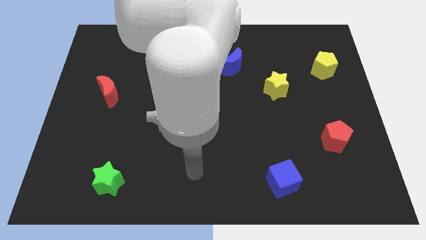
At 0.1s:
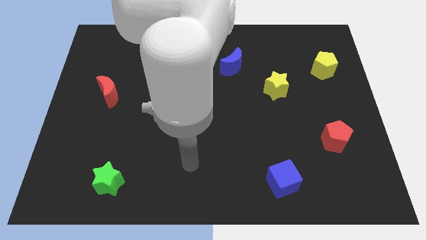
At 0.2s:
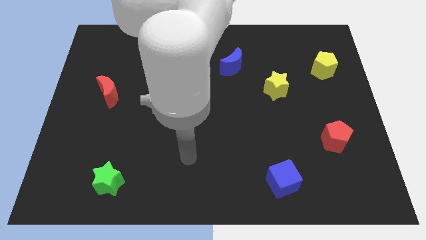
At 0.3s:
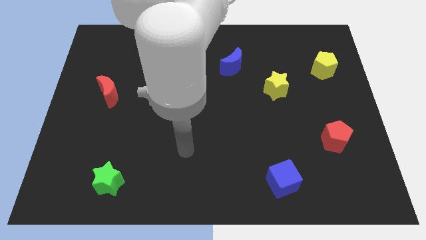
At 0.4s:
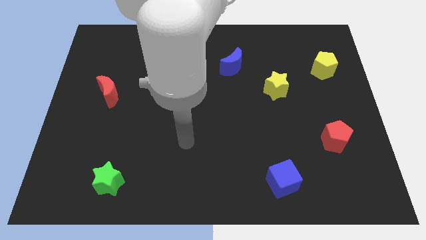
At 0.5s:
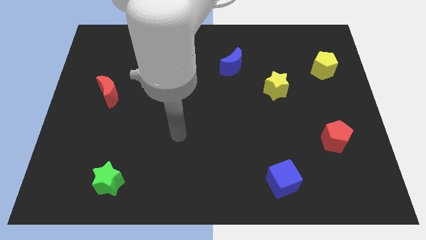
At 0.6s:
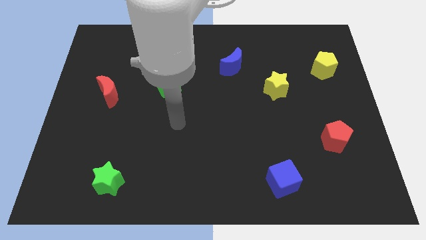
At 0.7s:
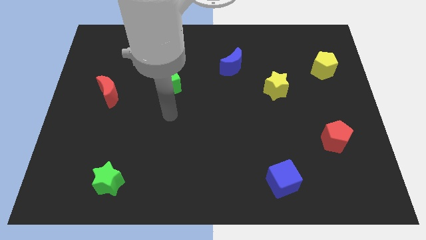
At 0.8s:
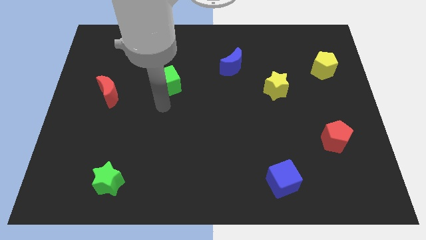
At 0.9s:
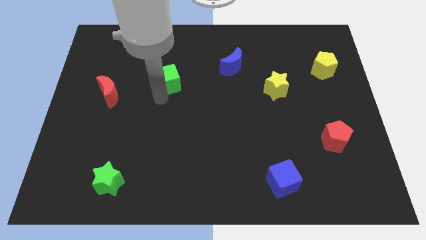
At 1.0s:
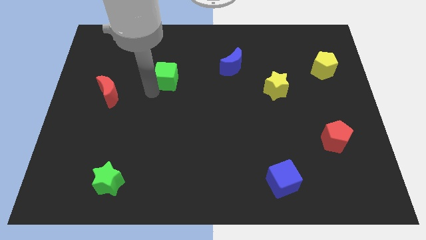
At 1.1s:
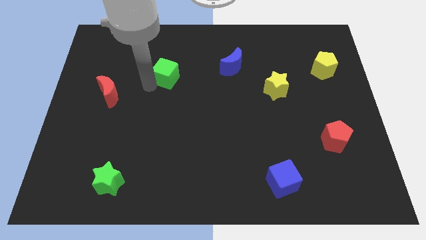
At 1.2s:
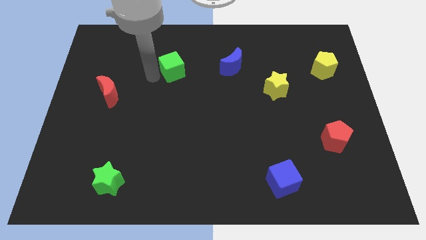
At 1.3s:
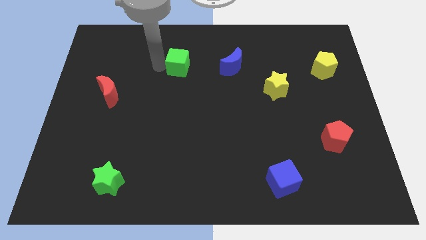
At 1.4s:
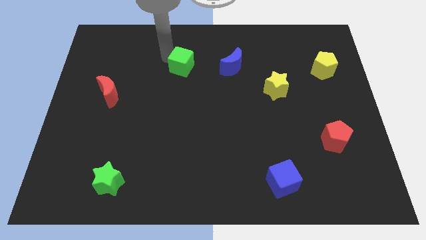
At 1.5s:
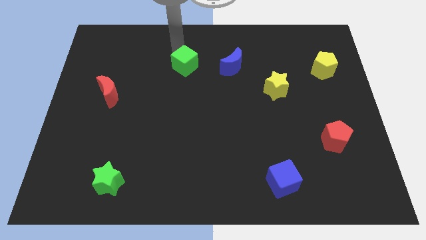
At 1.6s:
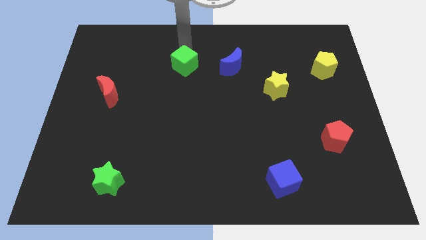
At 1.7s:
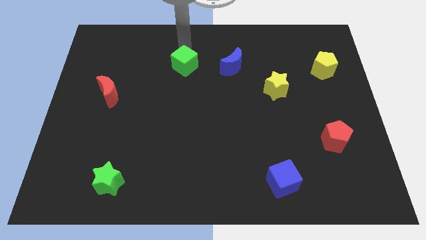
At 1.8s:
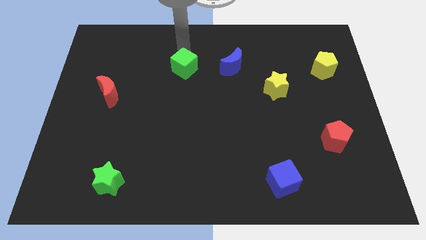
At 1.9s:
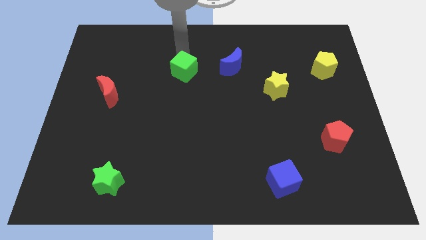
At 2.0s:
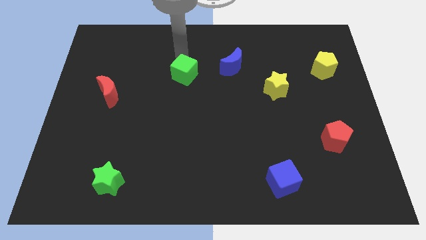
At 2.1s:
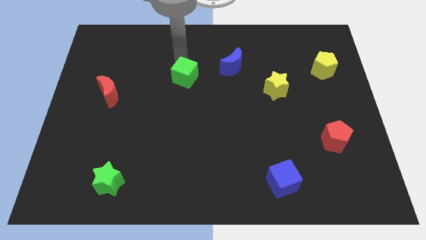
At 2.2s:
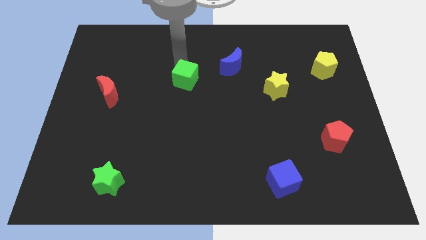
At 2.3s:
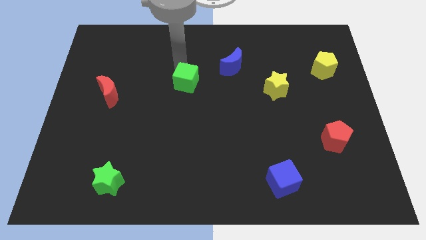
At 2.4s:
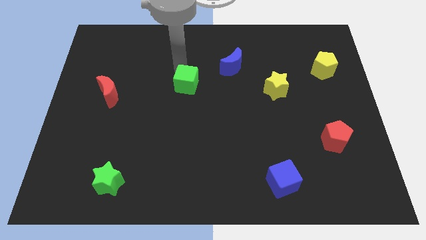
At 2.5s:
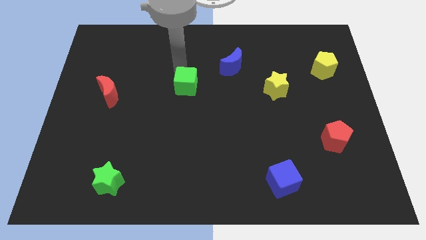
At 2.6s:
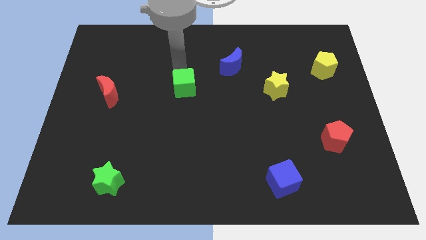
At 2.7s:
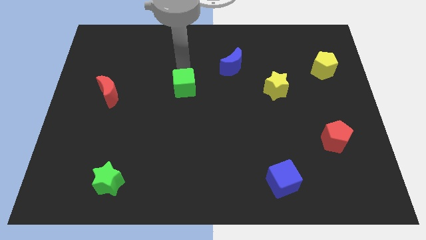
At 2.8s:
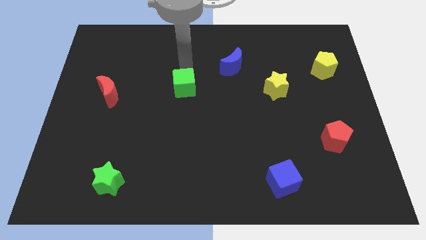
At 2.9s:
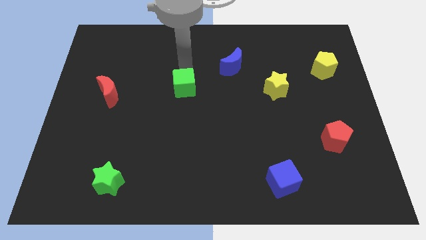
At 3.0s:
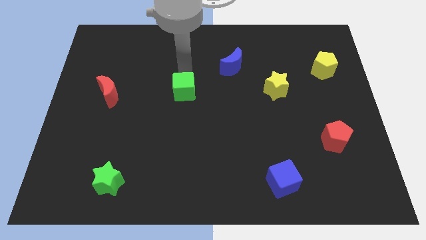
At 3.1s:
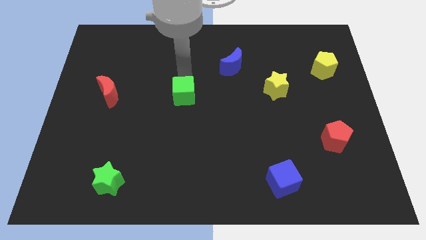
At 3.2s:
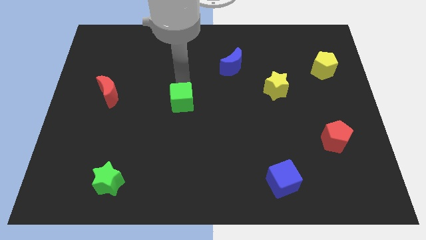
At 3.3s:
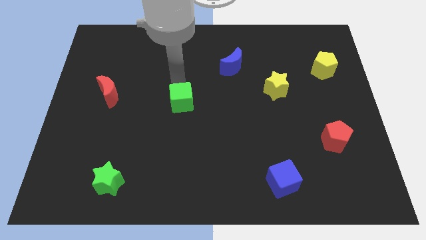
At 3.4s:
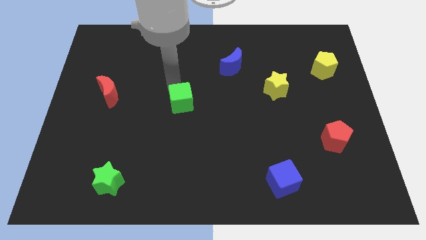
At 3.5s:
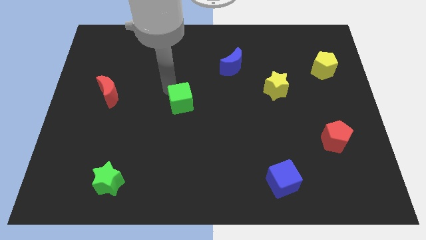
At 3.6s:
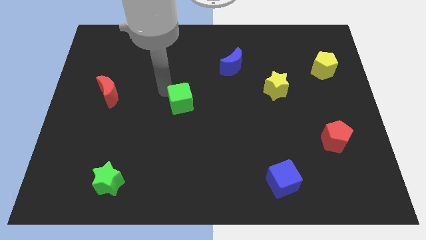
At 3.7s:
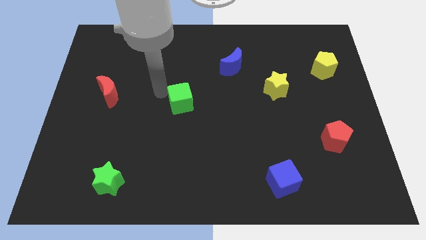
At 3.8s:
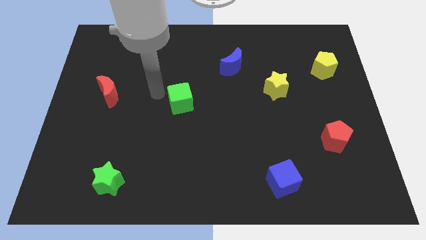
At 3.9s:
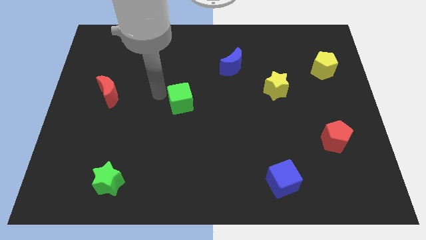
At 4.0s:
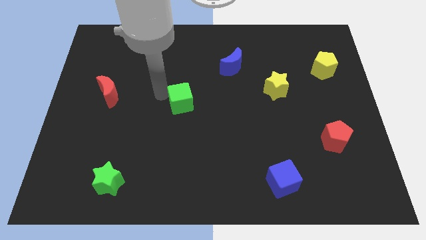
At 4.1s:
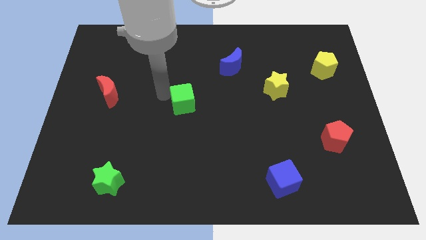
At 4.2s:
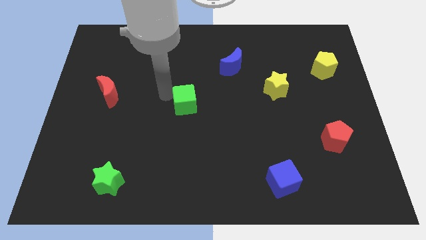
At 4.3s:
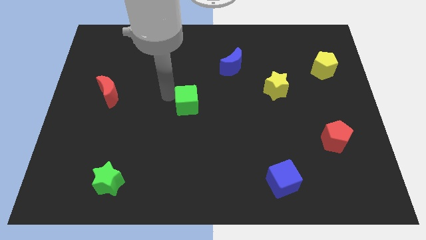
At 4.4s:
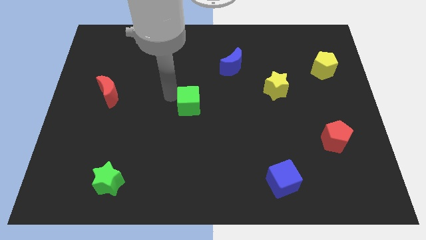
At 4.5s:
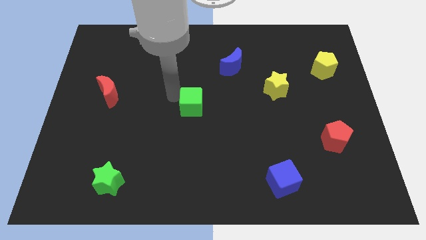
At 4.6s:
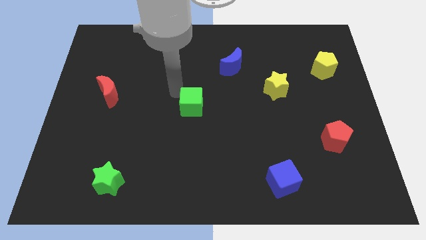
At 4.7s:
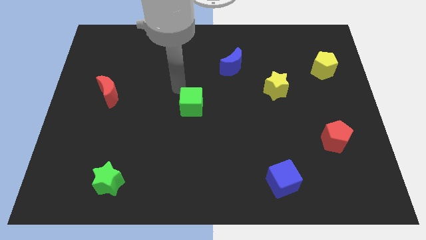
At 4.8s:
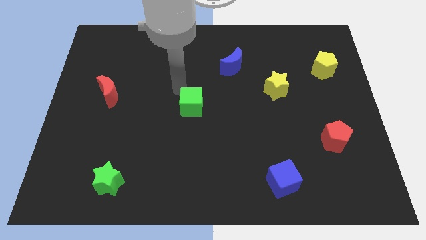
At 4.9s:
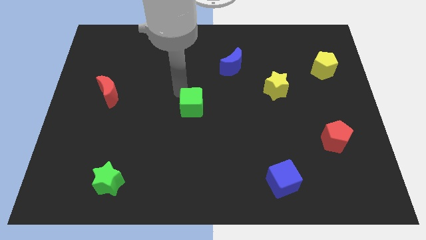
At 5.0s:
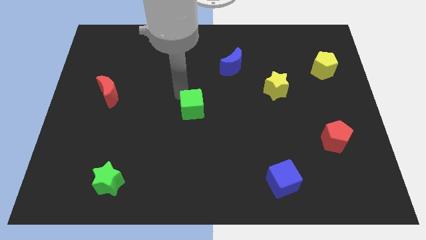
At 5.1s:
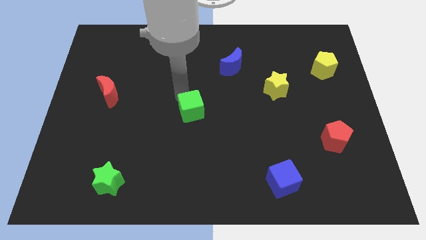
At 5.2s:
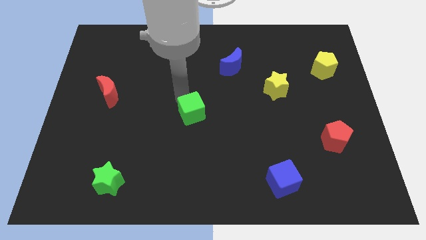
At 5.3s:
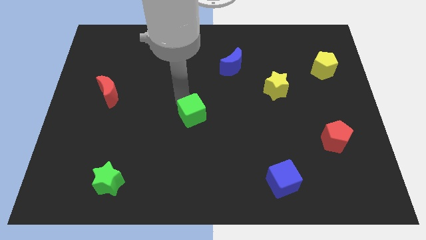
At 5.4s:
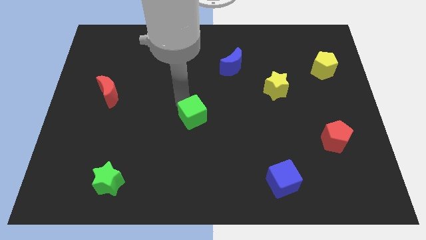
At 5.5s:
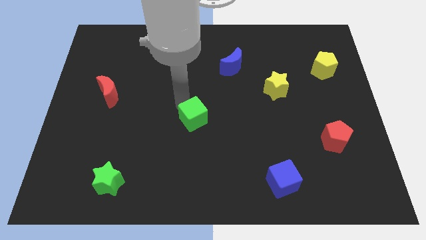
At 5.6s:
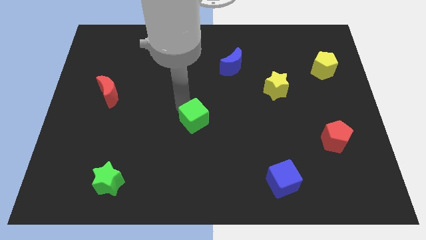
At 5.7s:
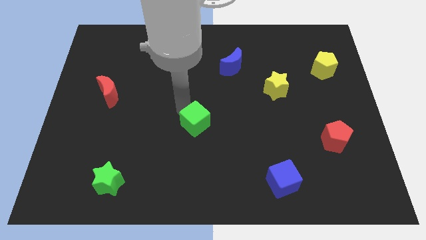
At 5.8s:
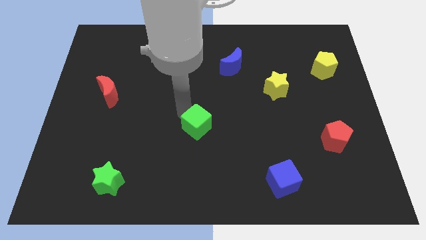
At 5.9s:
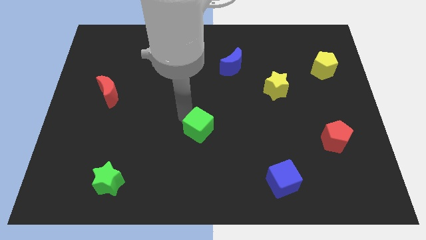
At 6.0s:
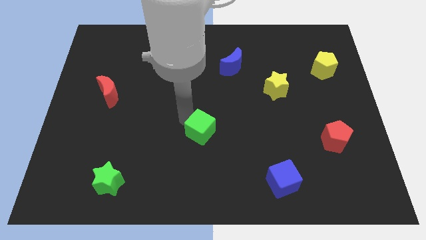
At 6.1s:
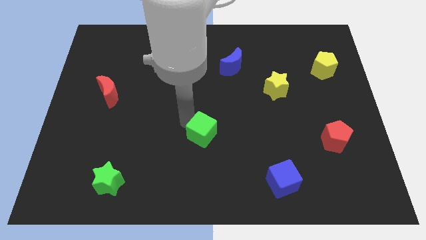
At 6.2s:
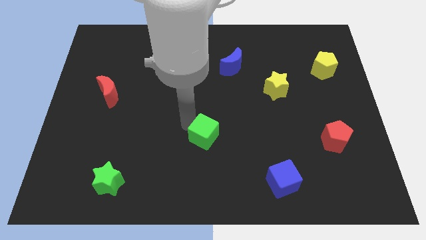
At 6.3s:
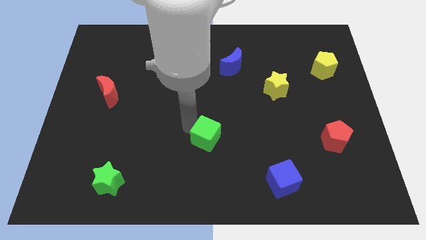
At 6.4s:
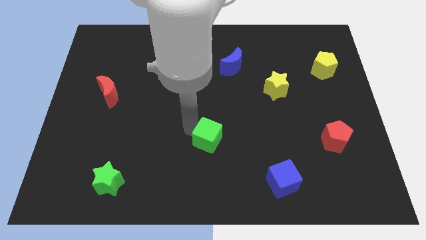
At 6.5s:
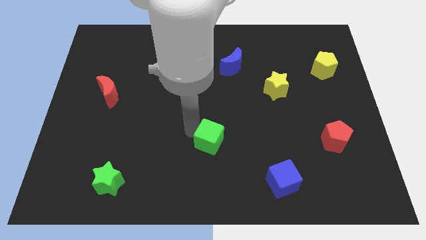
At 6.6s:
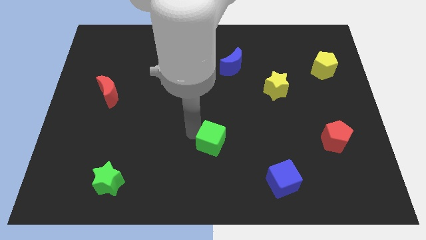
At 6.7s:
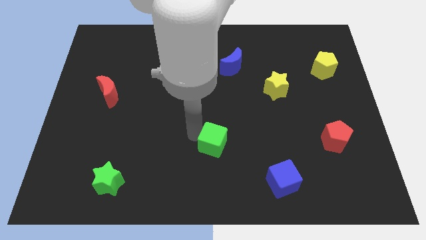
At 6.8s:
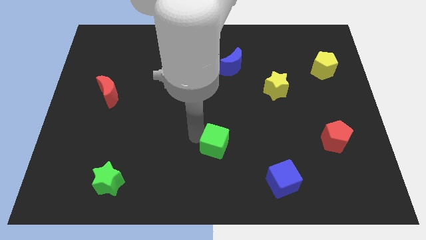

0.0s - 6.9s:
slide the green cube downwards and right

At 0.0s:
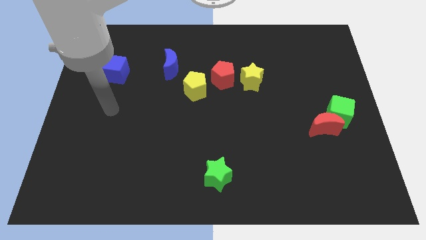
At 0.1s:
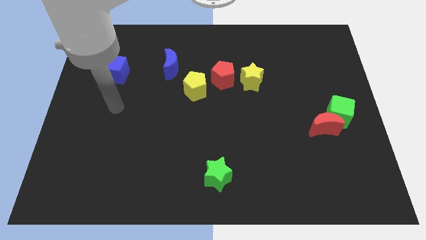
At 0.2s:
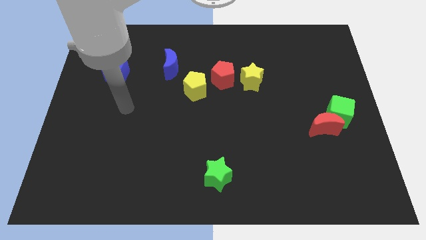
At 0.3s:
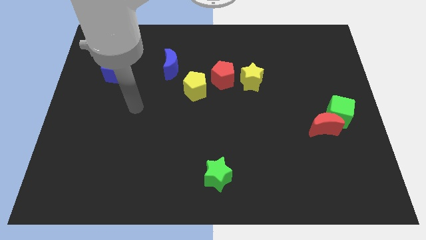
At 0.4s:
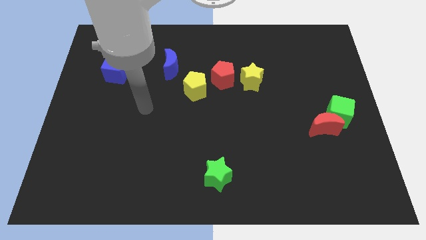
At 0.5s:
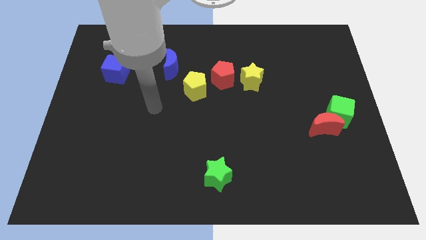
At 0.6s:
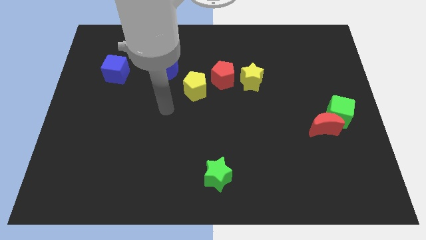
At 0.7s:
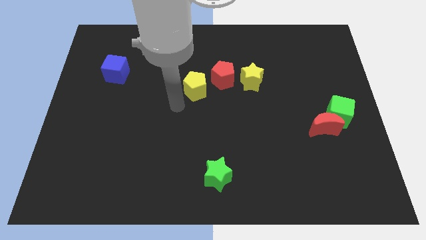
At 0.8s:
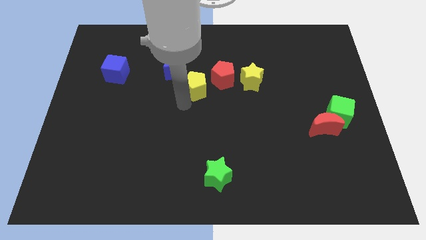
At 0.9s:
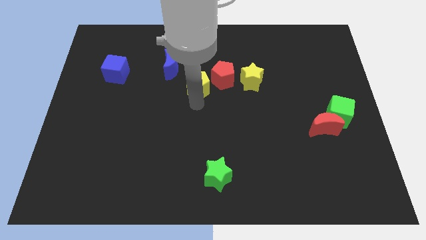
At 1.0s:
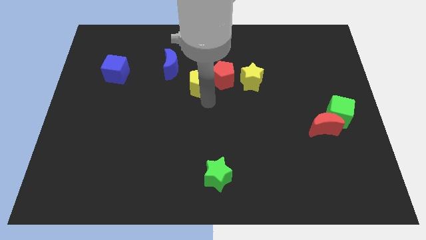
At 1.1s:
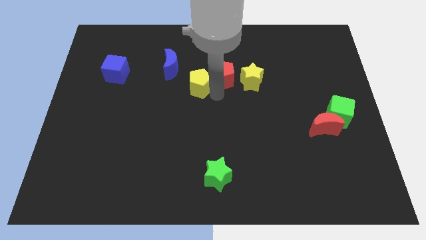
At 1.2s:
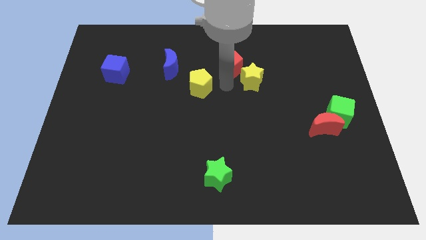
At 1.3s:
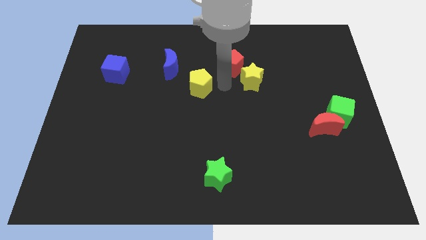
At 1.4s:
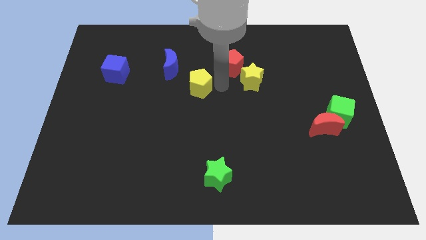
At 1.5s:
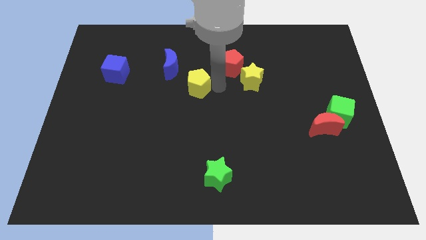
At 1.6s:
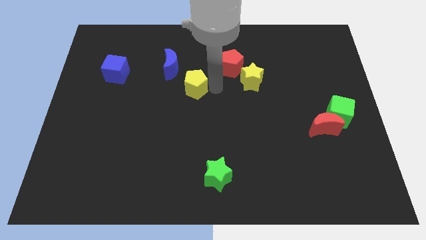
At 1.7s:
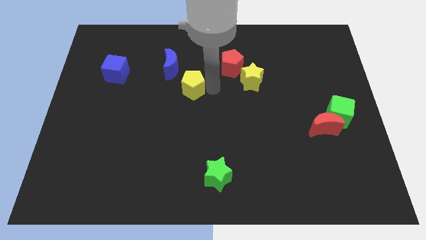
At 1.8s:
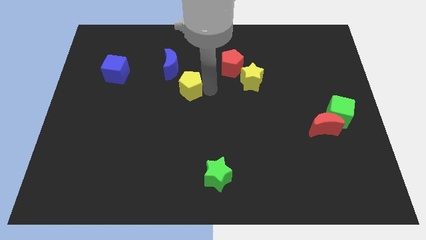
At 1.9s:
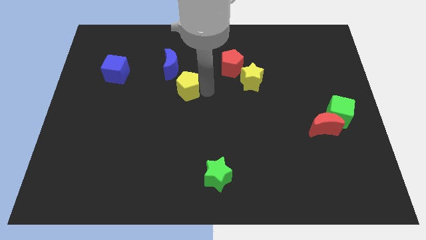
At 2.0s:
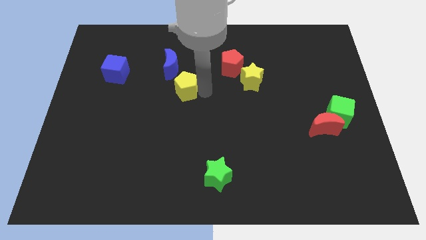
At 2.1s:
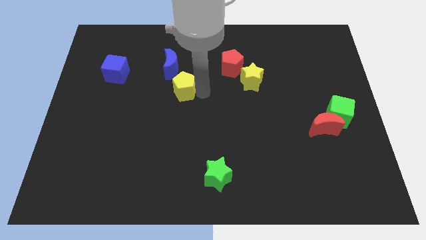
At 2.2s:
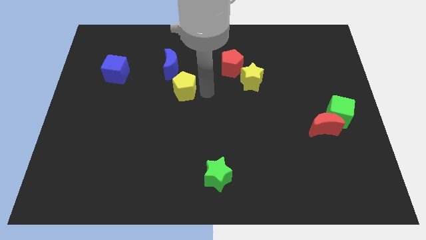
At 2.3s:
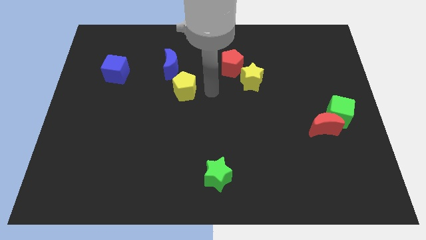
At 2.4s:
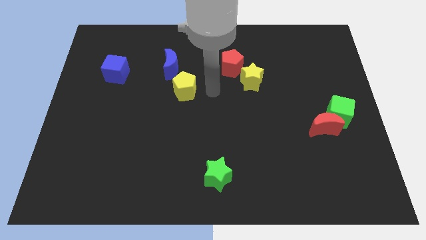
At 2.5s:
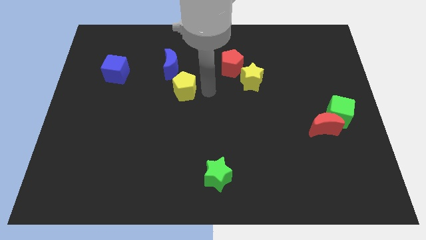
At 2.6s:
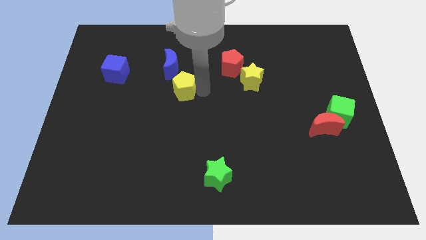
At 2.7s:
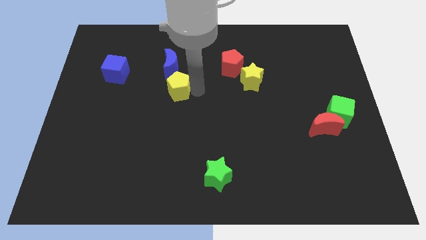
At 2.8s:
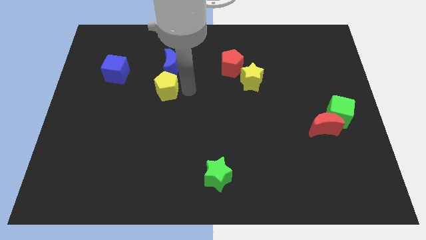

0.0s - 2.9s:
slide the yellow pentagon a little bit to the left
